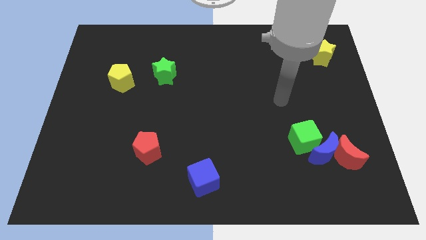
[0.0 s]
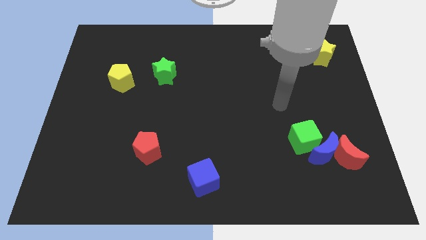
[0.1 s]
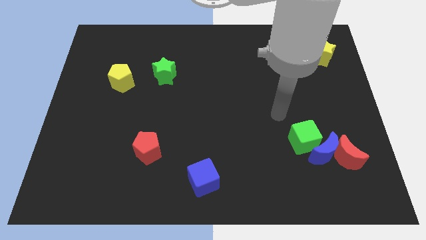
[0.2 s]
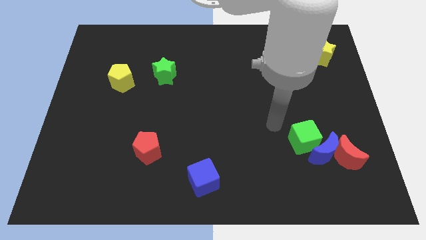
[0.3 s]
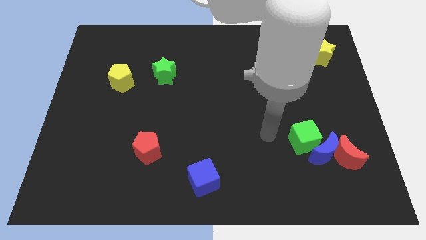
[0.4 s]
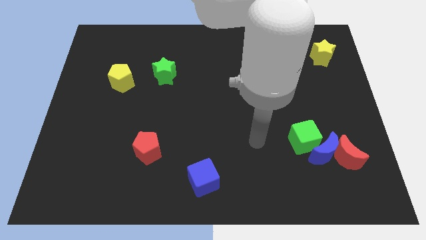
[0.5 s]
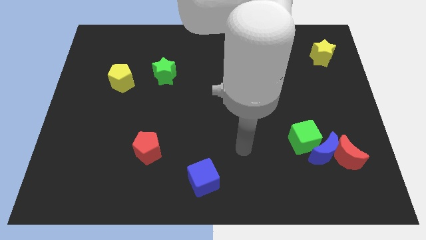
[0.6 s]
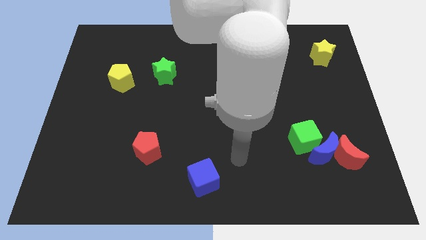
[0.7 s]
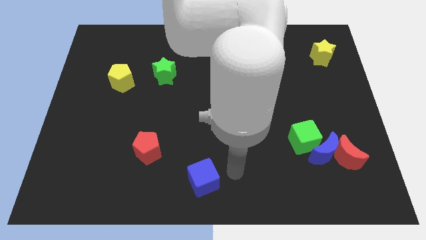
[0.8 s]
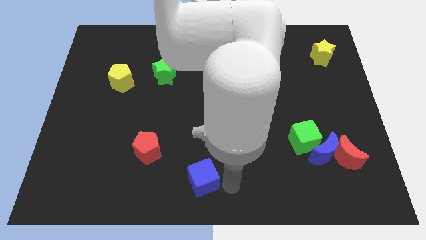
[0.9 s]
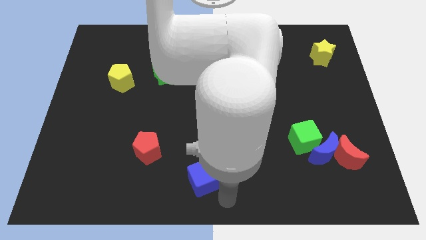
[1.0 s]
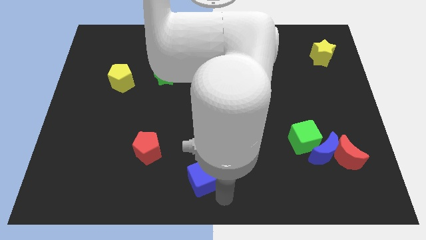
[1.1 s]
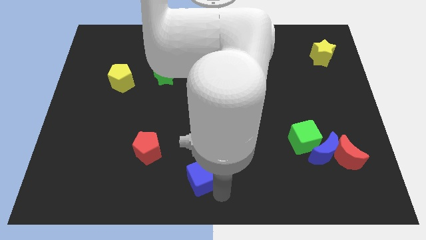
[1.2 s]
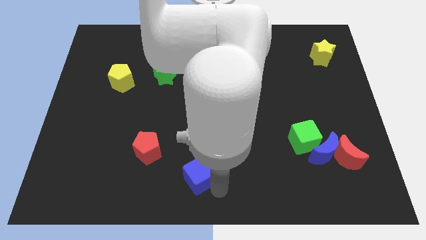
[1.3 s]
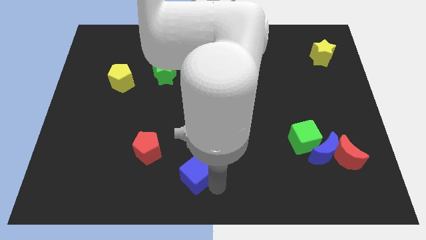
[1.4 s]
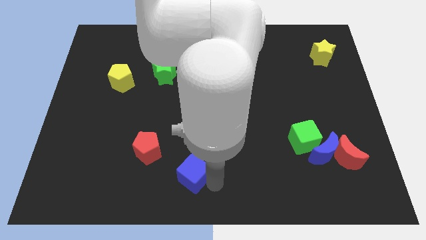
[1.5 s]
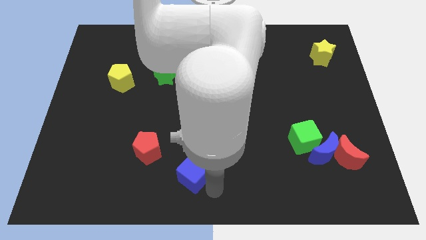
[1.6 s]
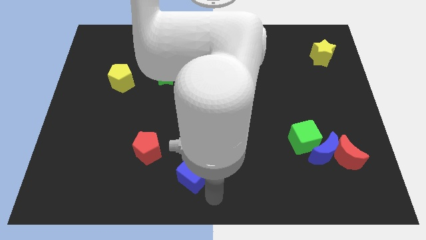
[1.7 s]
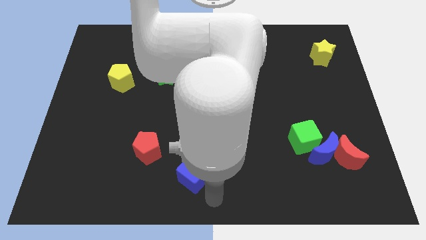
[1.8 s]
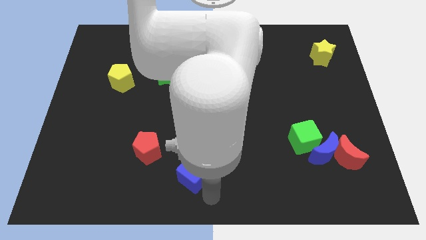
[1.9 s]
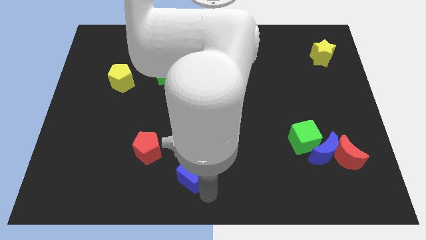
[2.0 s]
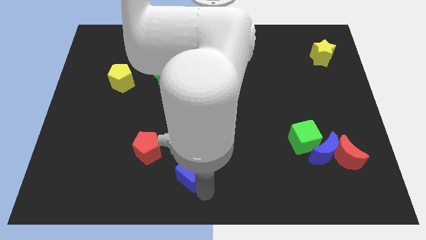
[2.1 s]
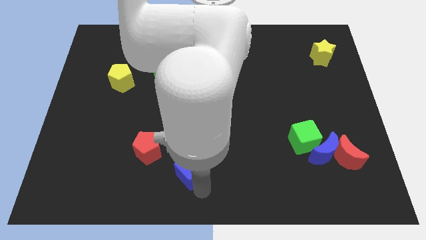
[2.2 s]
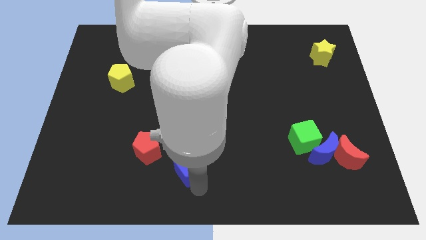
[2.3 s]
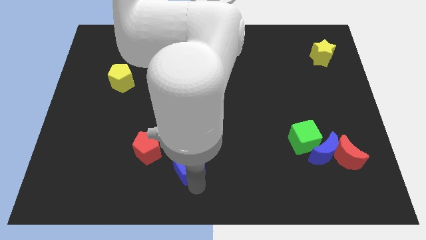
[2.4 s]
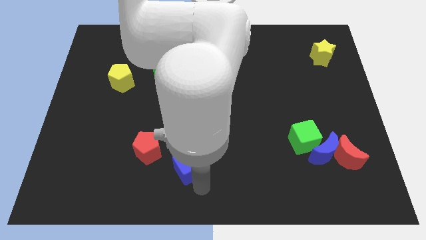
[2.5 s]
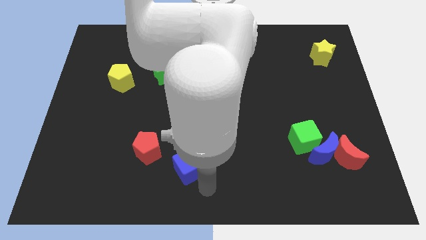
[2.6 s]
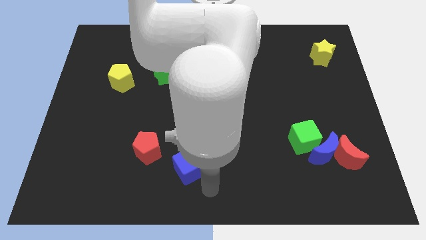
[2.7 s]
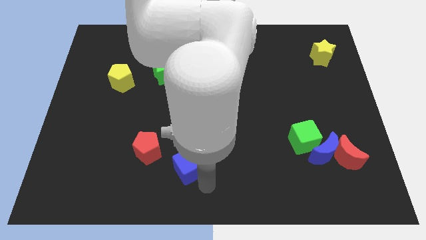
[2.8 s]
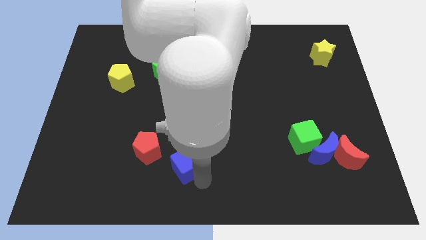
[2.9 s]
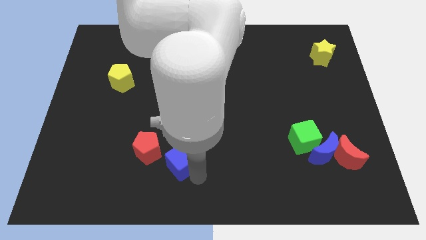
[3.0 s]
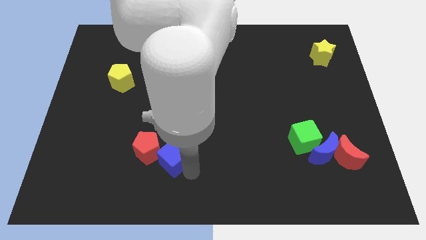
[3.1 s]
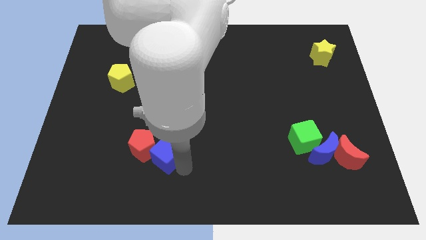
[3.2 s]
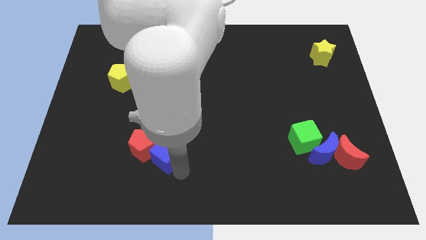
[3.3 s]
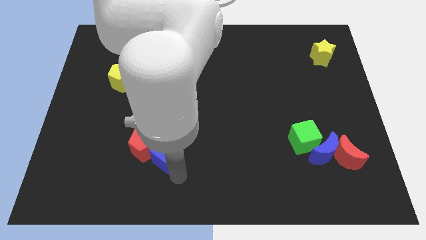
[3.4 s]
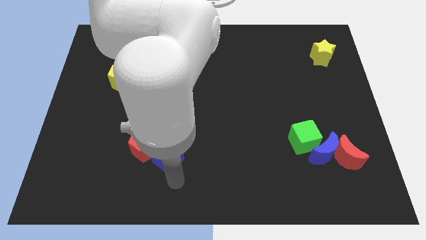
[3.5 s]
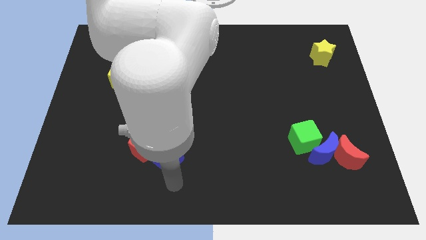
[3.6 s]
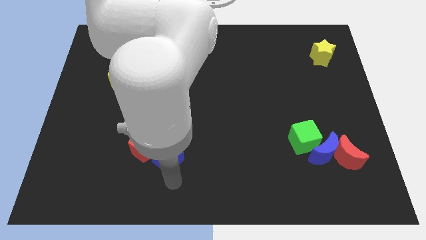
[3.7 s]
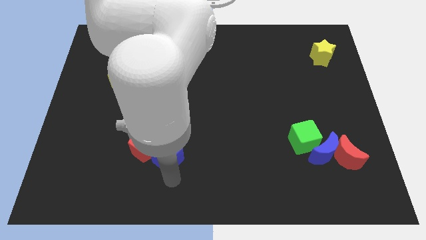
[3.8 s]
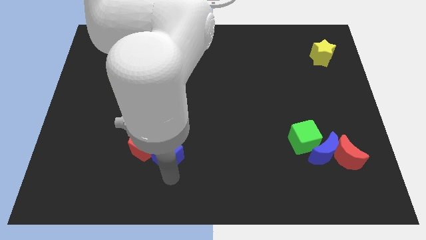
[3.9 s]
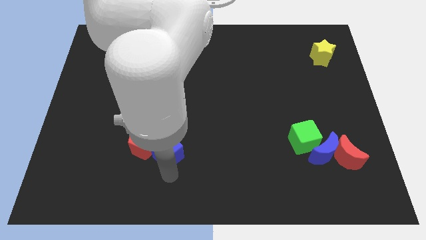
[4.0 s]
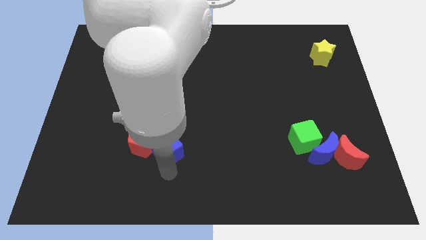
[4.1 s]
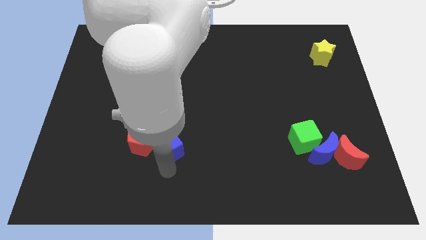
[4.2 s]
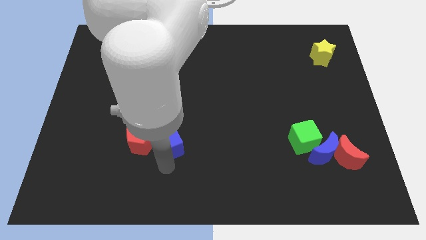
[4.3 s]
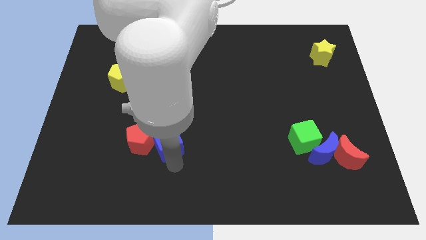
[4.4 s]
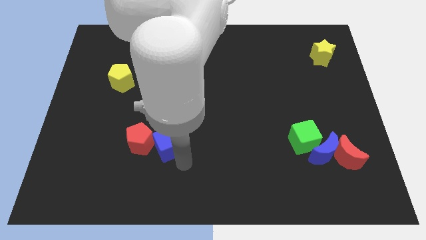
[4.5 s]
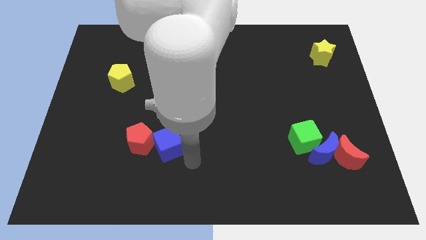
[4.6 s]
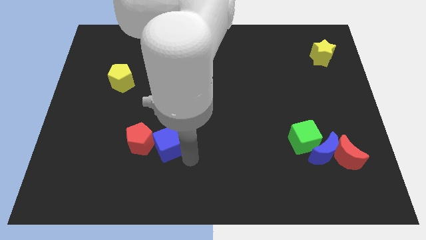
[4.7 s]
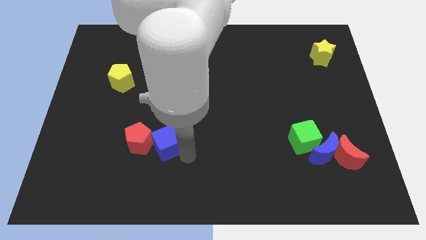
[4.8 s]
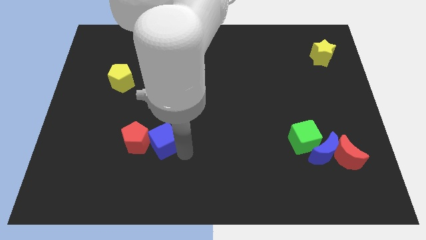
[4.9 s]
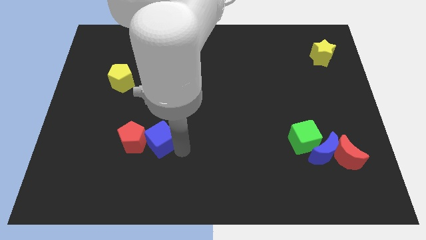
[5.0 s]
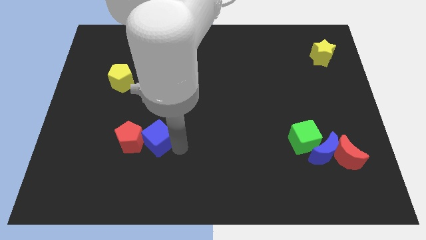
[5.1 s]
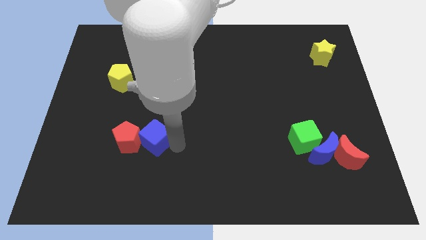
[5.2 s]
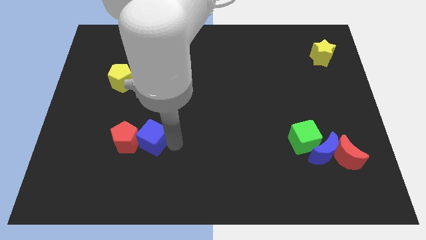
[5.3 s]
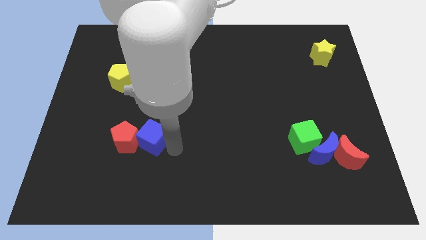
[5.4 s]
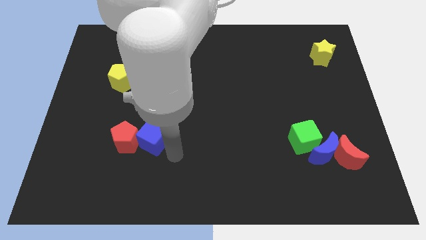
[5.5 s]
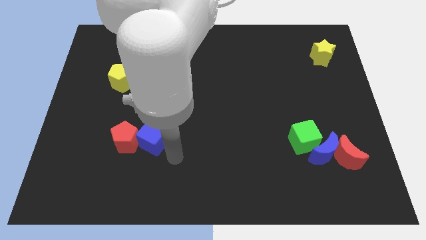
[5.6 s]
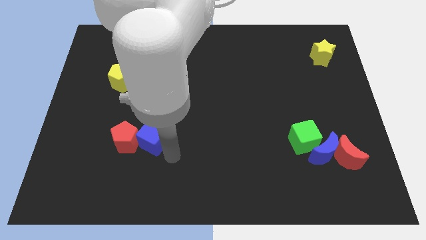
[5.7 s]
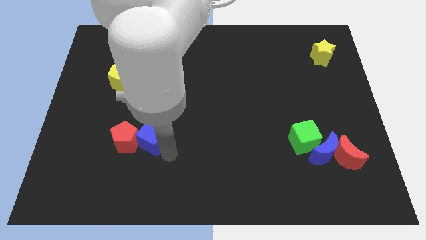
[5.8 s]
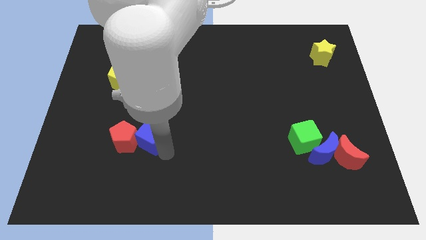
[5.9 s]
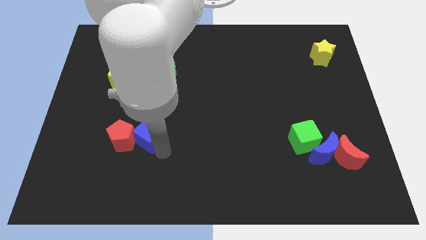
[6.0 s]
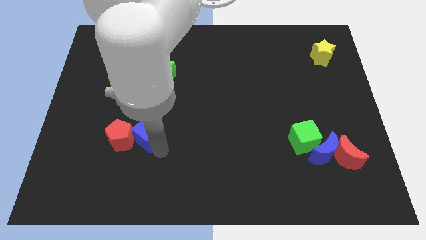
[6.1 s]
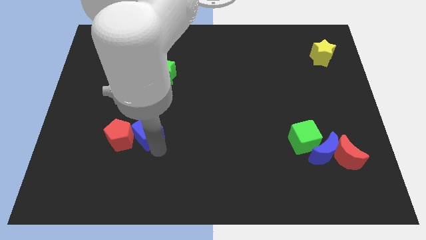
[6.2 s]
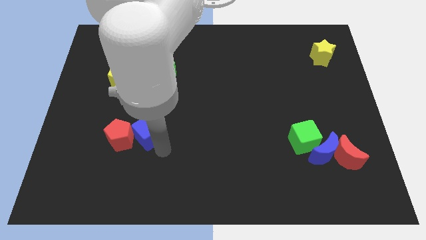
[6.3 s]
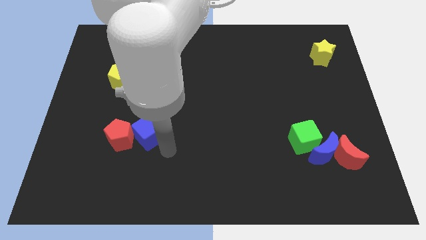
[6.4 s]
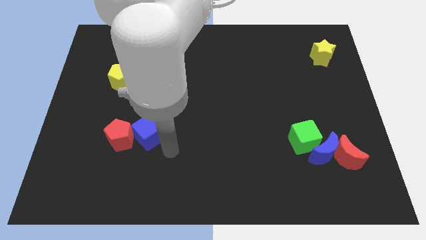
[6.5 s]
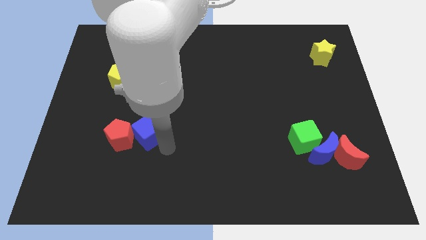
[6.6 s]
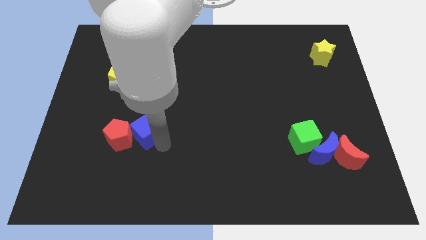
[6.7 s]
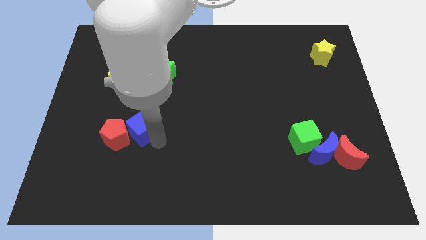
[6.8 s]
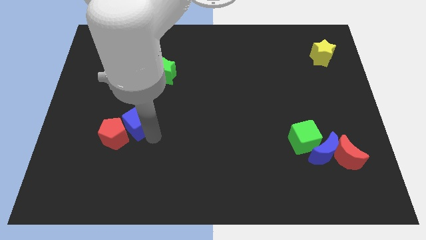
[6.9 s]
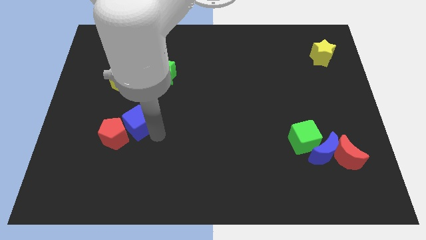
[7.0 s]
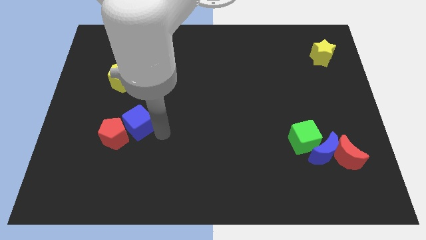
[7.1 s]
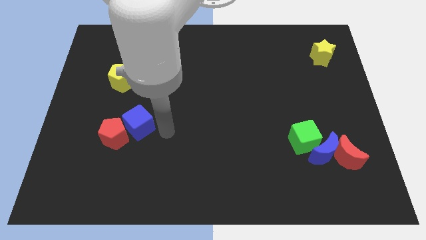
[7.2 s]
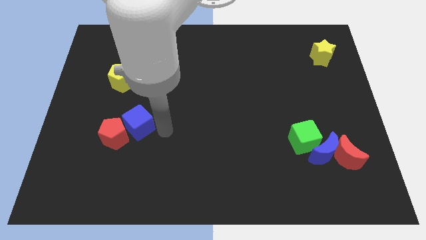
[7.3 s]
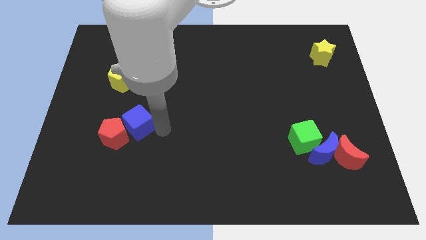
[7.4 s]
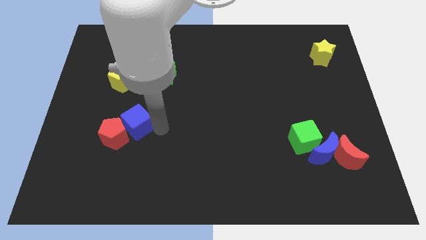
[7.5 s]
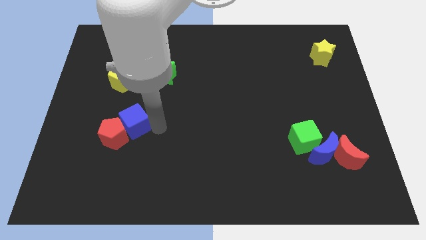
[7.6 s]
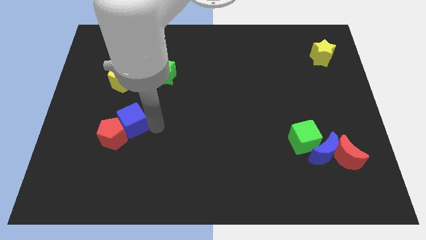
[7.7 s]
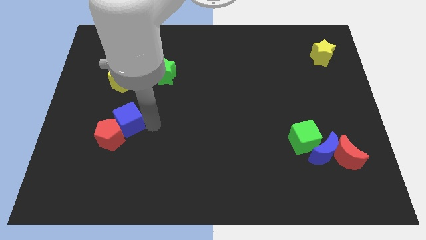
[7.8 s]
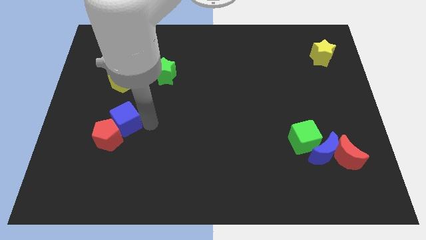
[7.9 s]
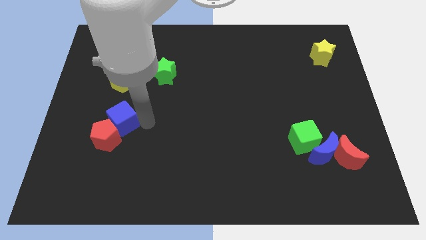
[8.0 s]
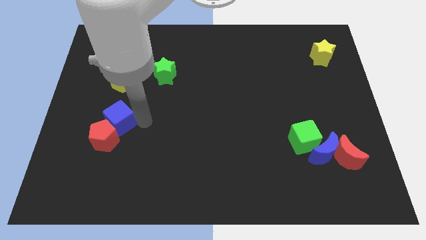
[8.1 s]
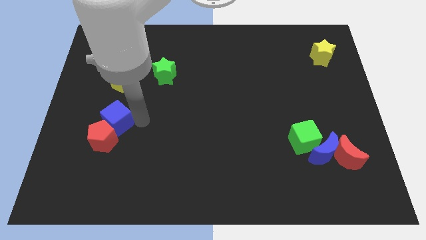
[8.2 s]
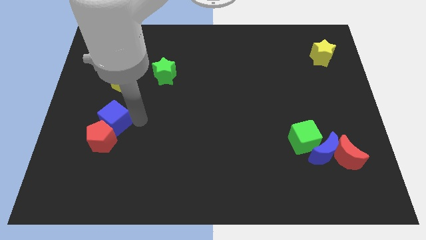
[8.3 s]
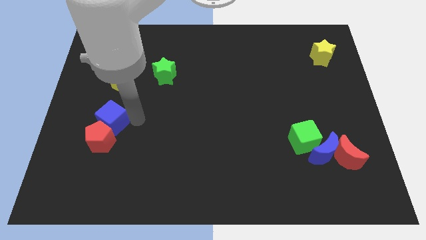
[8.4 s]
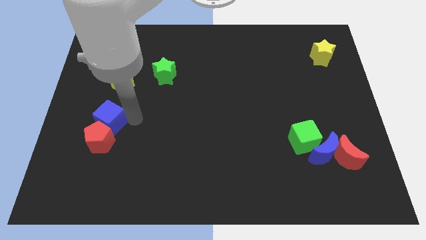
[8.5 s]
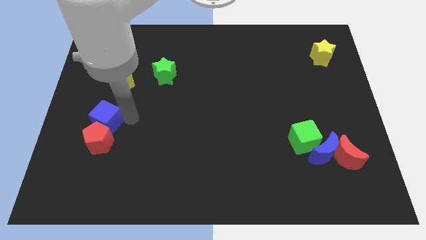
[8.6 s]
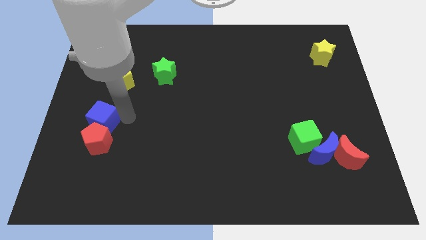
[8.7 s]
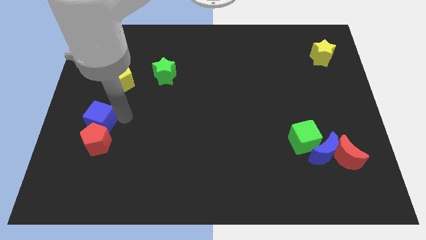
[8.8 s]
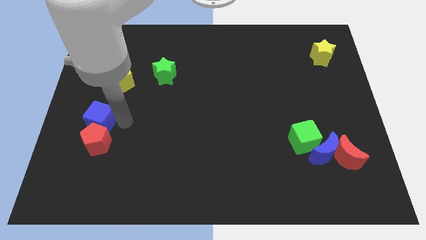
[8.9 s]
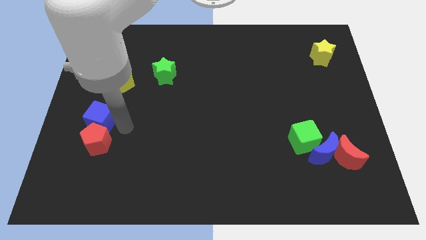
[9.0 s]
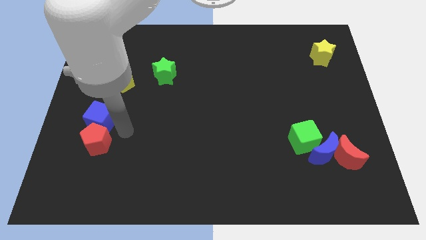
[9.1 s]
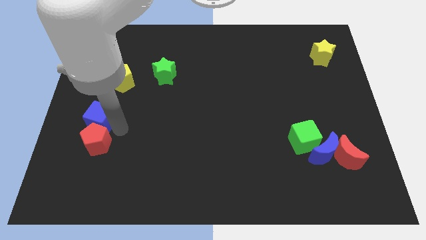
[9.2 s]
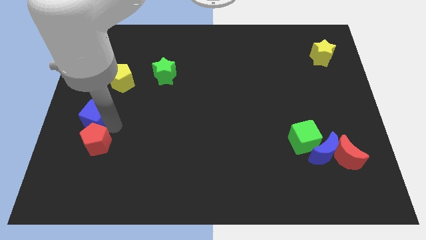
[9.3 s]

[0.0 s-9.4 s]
put the blue cube to the left side
